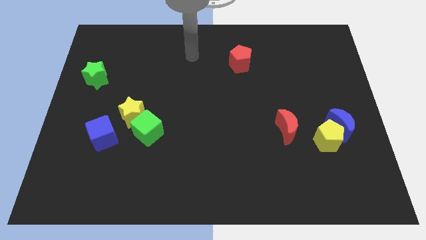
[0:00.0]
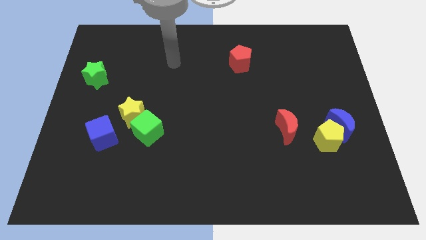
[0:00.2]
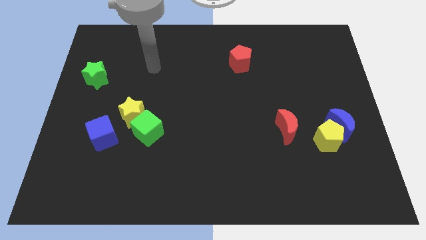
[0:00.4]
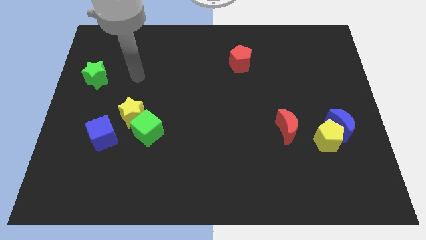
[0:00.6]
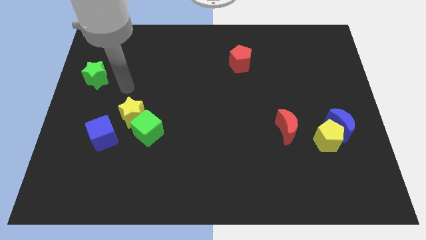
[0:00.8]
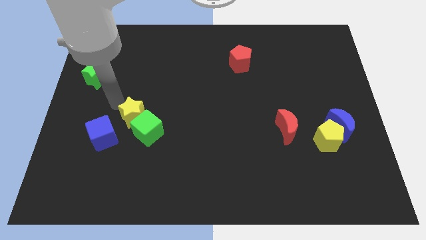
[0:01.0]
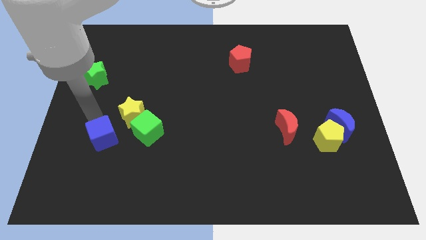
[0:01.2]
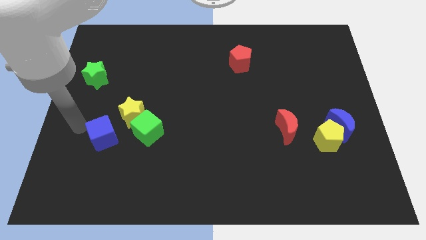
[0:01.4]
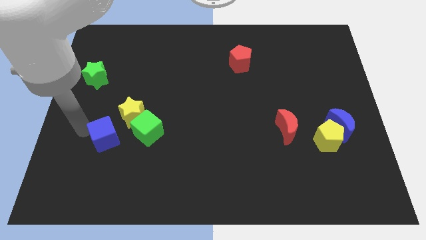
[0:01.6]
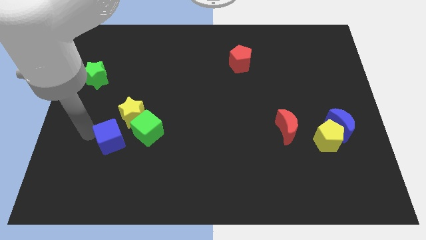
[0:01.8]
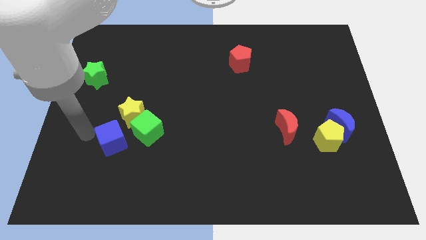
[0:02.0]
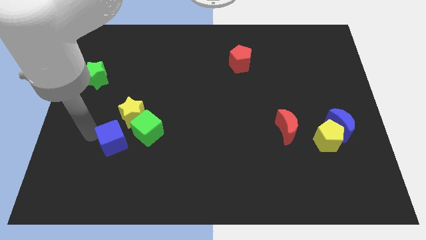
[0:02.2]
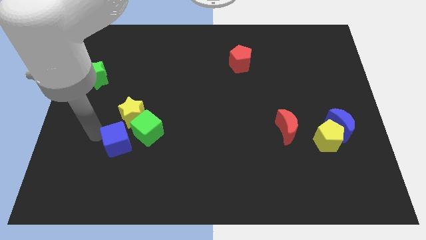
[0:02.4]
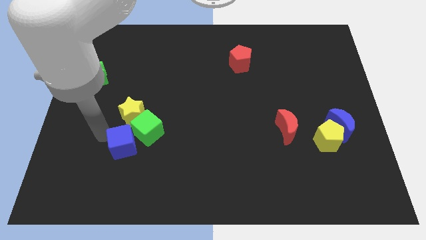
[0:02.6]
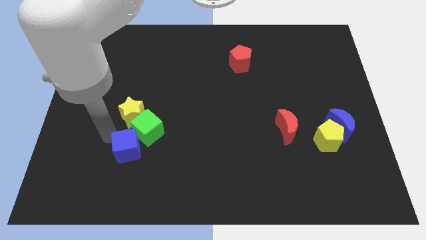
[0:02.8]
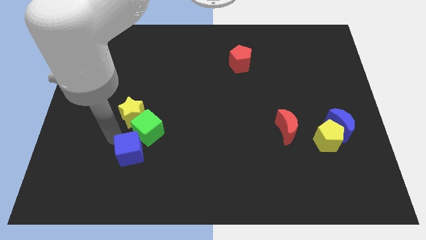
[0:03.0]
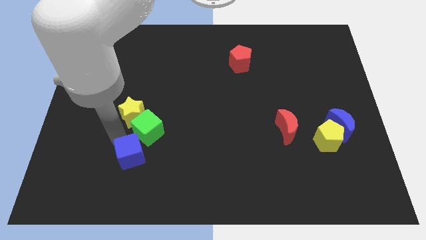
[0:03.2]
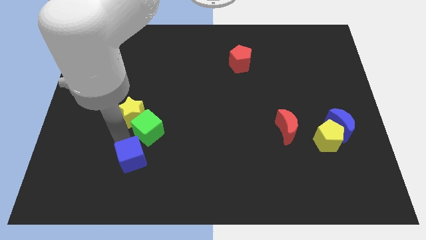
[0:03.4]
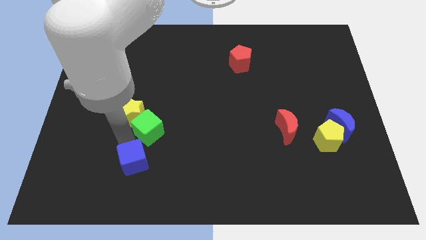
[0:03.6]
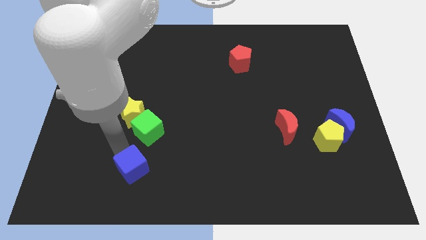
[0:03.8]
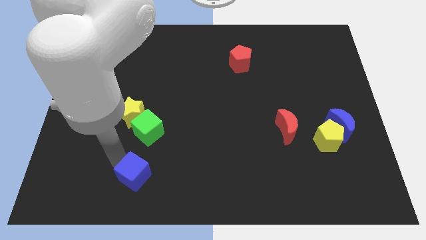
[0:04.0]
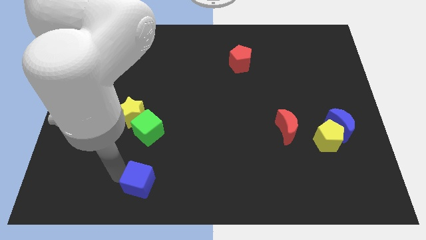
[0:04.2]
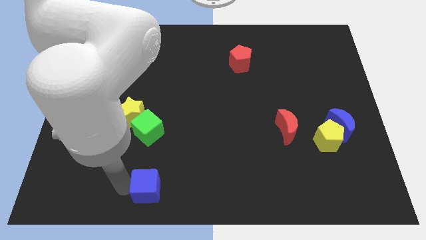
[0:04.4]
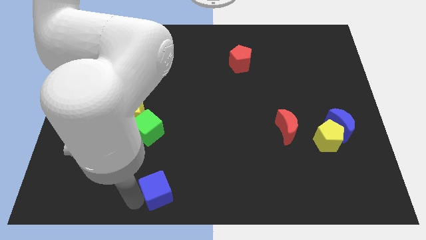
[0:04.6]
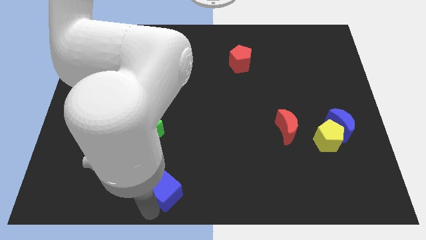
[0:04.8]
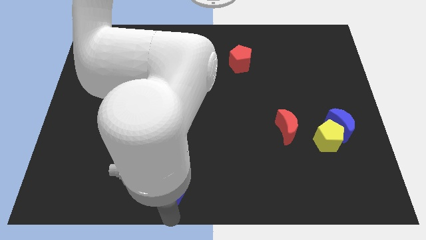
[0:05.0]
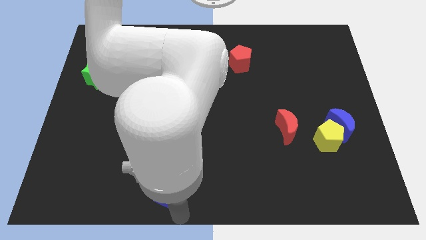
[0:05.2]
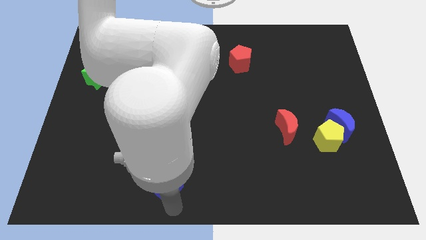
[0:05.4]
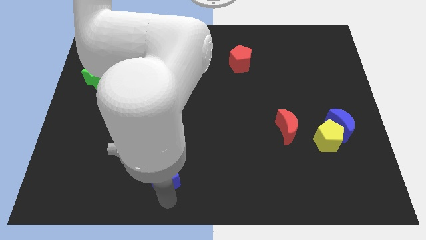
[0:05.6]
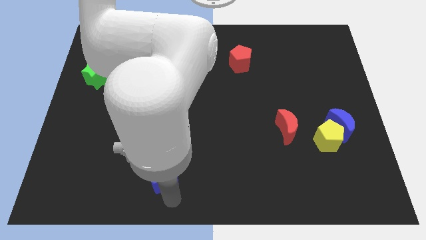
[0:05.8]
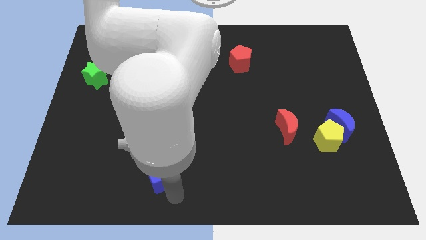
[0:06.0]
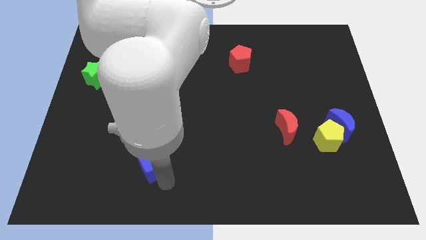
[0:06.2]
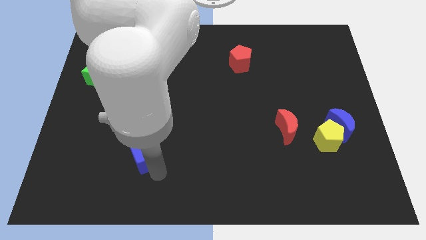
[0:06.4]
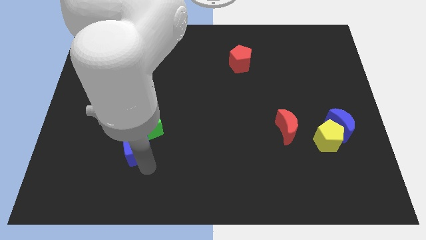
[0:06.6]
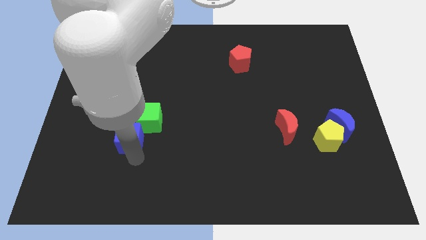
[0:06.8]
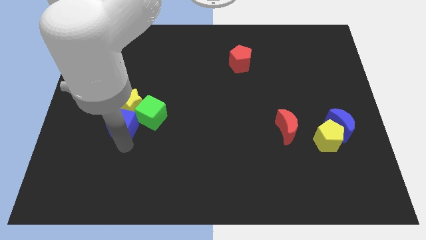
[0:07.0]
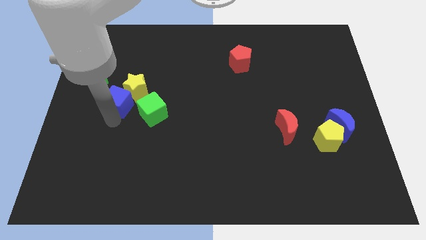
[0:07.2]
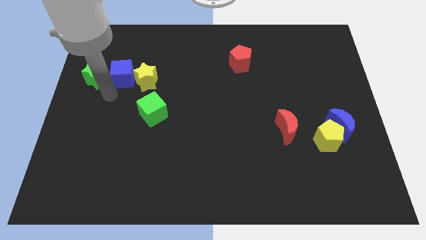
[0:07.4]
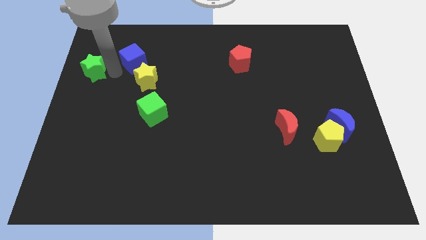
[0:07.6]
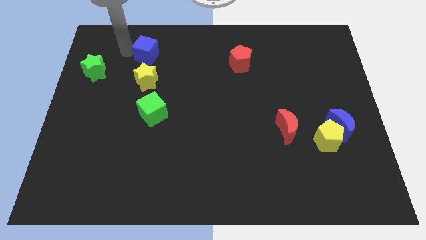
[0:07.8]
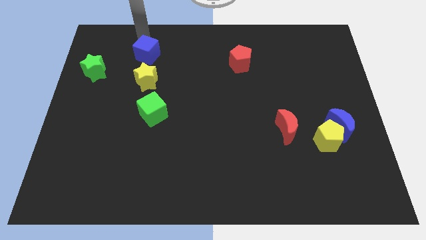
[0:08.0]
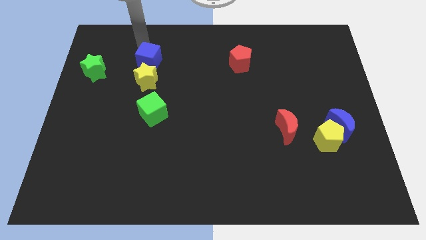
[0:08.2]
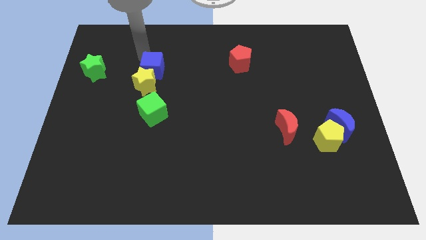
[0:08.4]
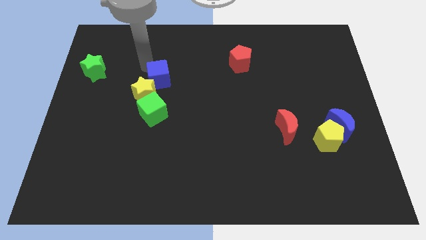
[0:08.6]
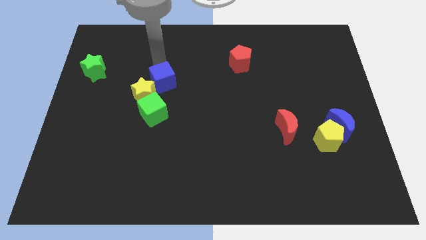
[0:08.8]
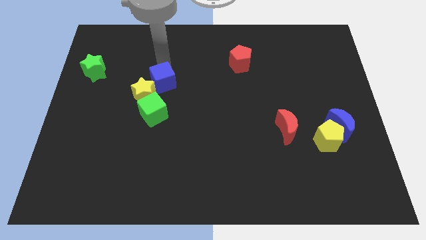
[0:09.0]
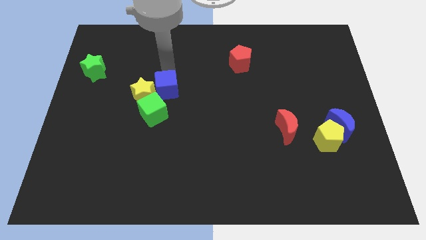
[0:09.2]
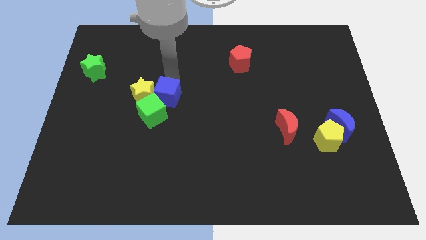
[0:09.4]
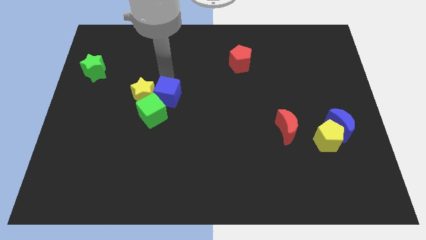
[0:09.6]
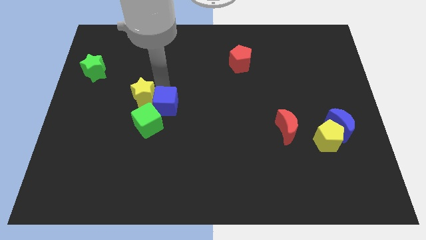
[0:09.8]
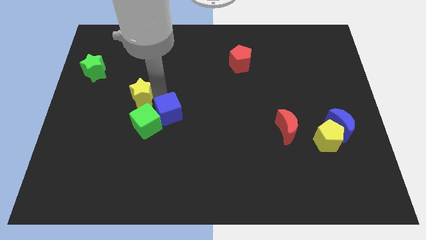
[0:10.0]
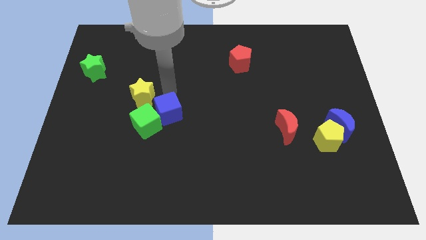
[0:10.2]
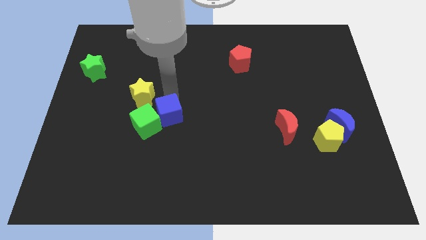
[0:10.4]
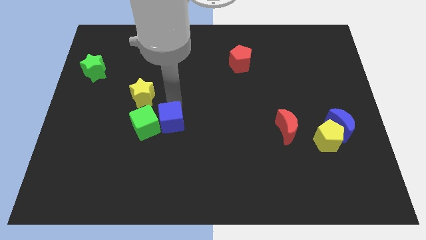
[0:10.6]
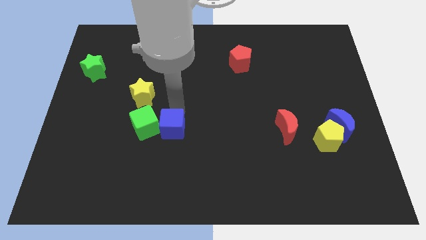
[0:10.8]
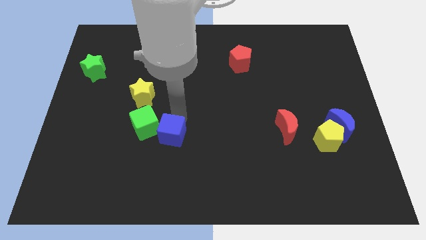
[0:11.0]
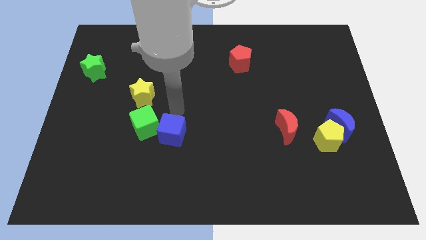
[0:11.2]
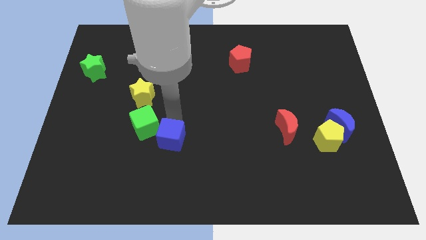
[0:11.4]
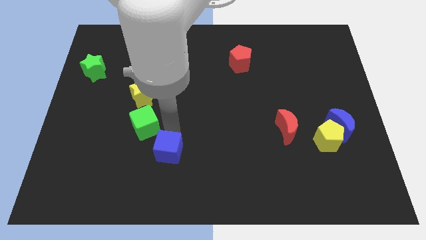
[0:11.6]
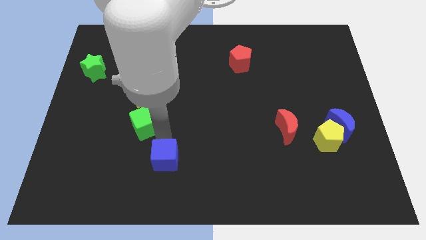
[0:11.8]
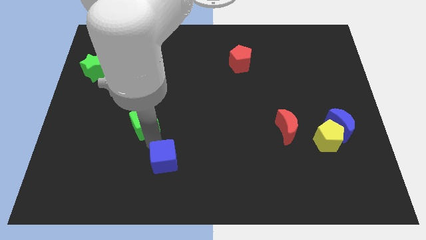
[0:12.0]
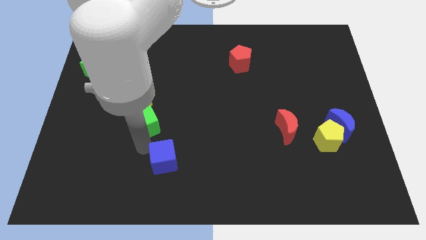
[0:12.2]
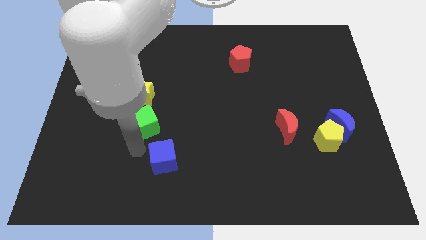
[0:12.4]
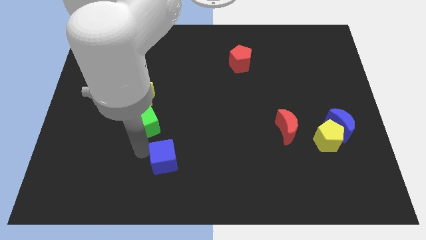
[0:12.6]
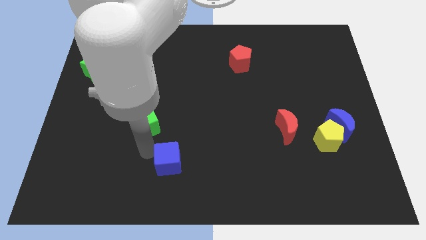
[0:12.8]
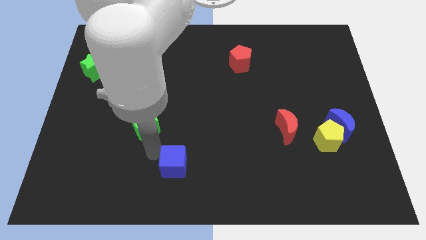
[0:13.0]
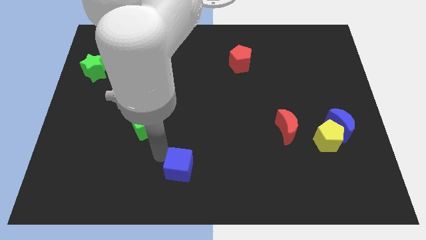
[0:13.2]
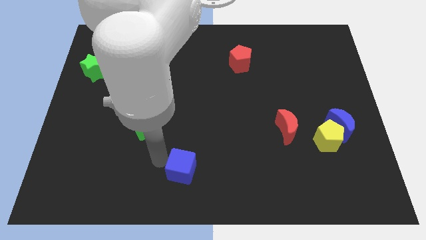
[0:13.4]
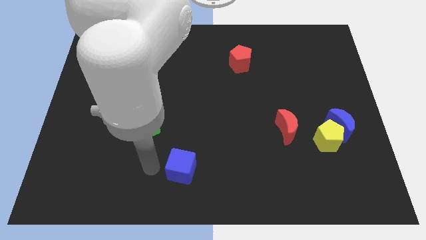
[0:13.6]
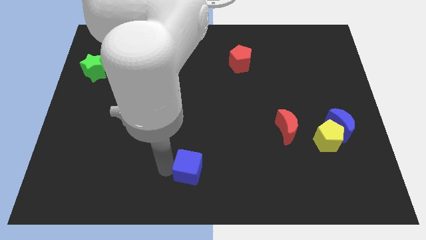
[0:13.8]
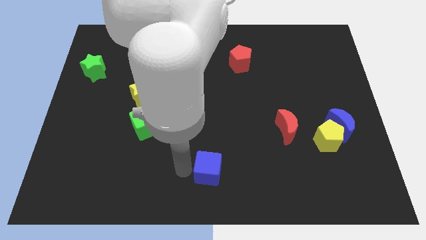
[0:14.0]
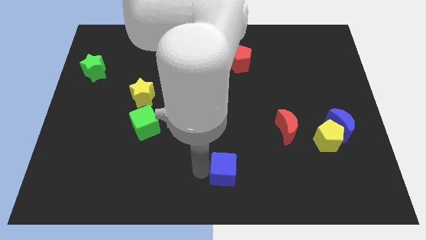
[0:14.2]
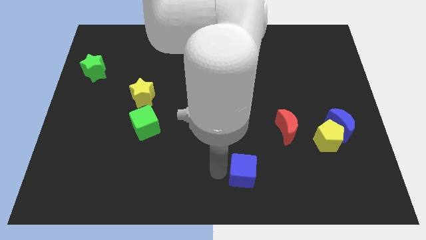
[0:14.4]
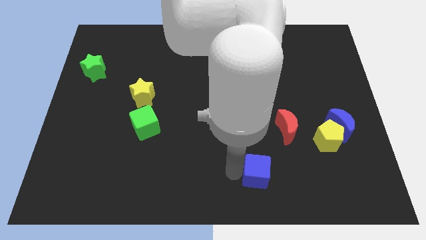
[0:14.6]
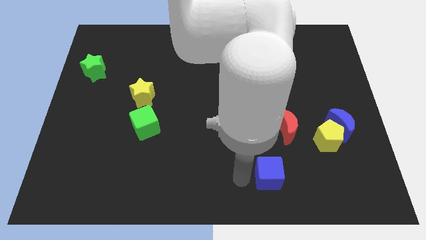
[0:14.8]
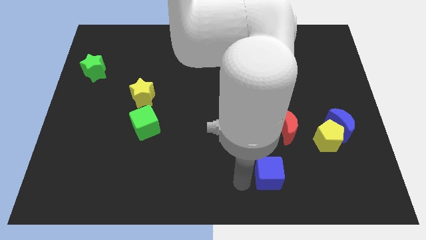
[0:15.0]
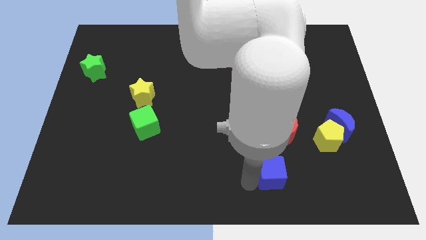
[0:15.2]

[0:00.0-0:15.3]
slide the blue cube below the red moon
